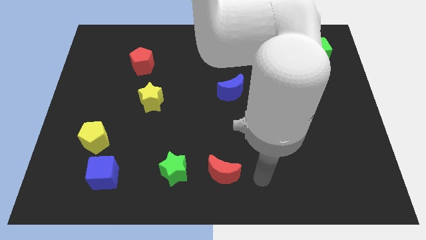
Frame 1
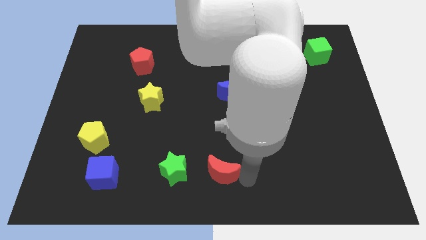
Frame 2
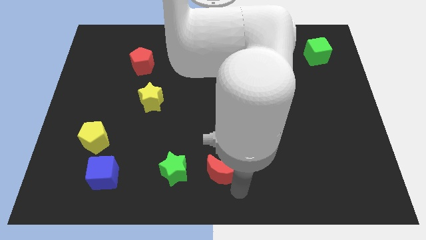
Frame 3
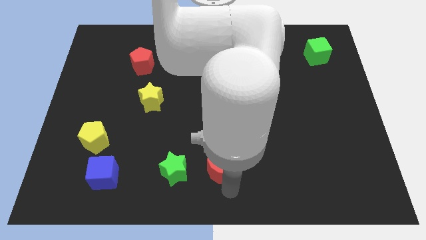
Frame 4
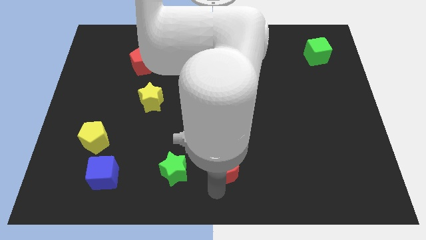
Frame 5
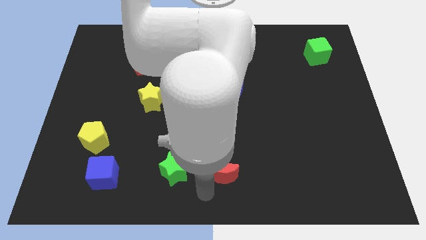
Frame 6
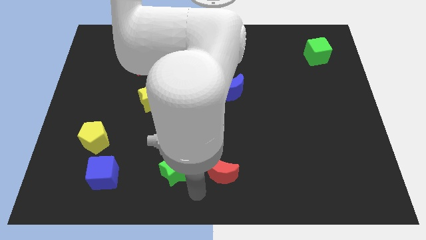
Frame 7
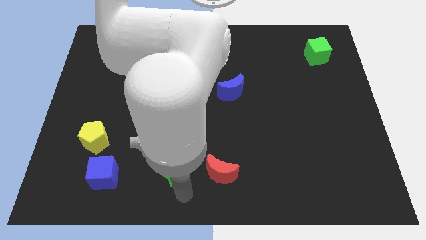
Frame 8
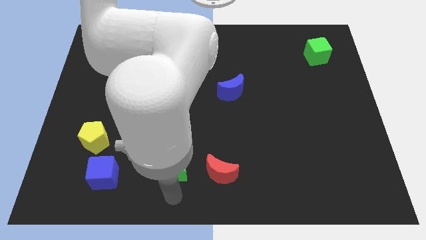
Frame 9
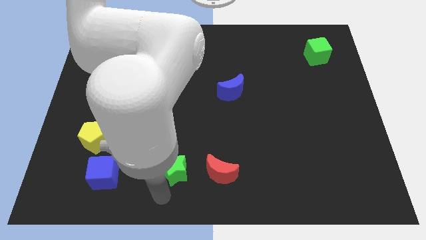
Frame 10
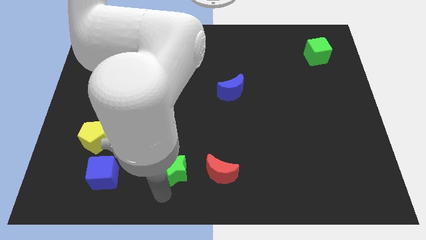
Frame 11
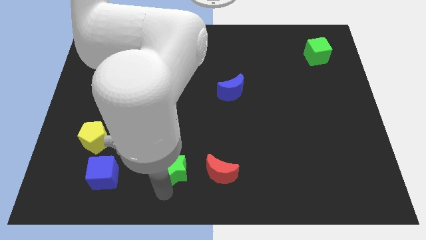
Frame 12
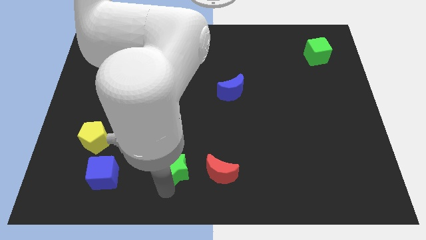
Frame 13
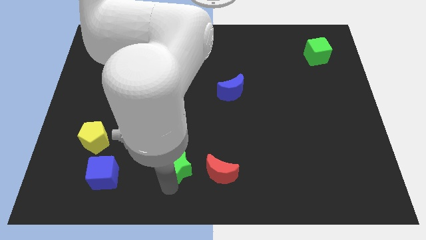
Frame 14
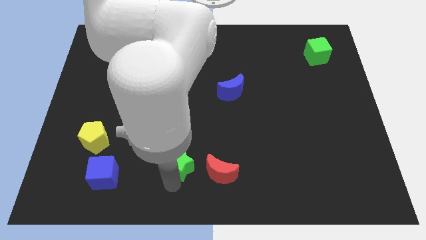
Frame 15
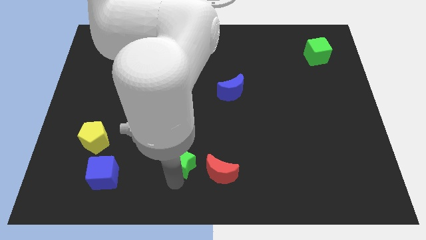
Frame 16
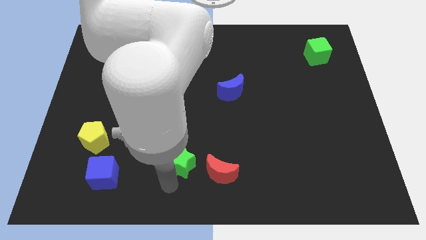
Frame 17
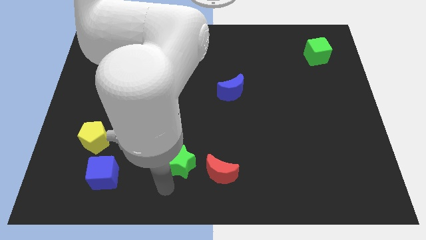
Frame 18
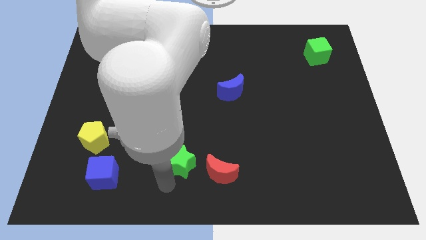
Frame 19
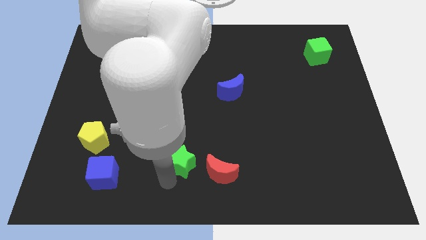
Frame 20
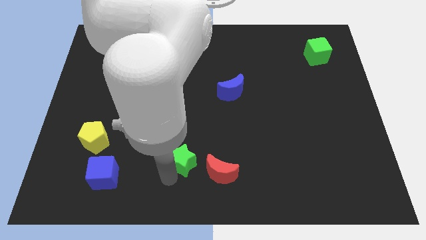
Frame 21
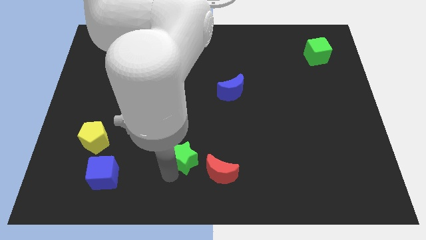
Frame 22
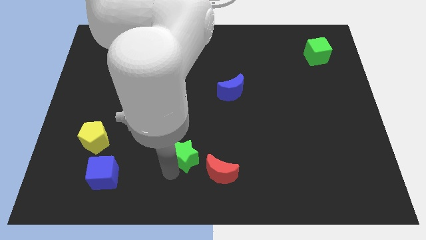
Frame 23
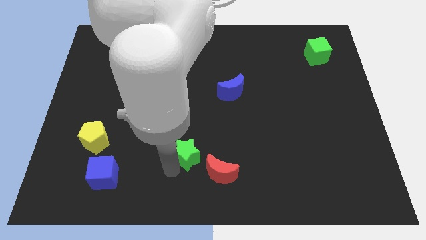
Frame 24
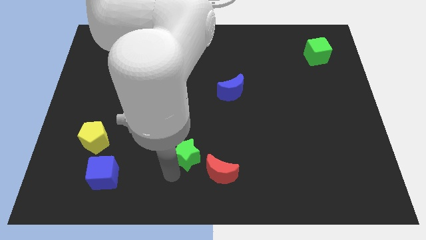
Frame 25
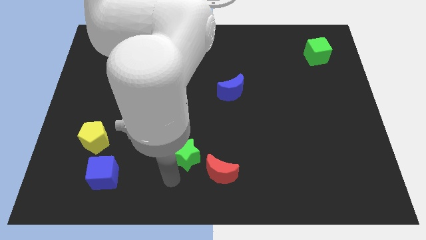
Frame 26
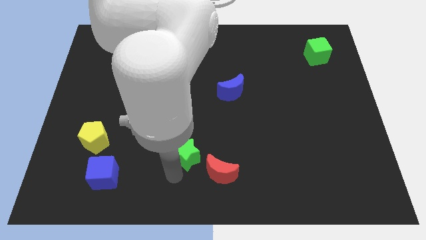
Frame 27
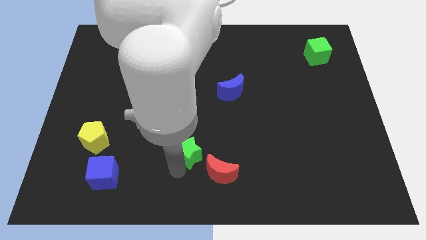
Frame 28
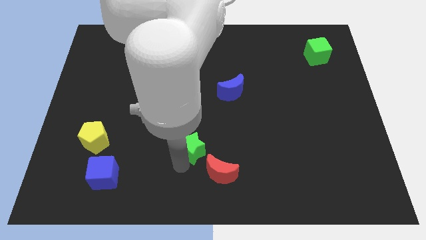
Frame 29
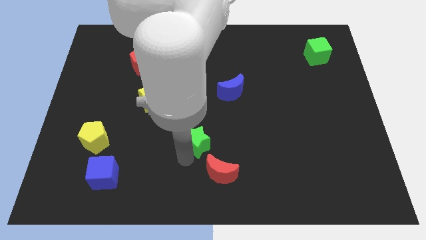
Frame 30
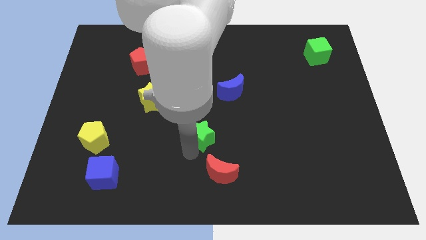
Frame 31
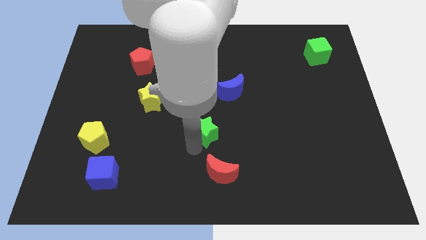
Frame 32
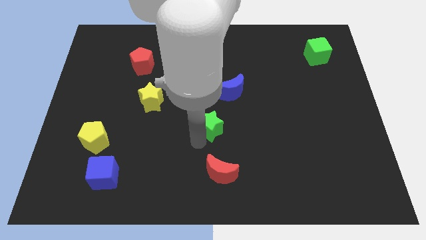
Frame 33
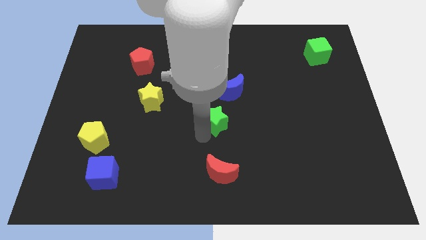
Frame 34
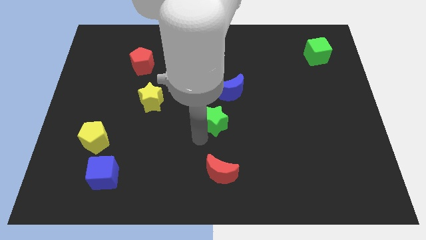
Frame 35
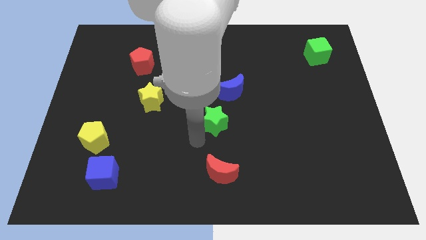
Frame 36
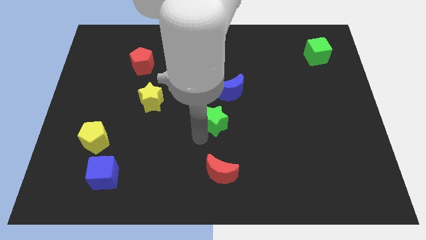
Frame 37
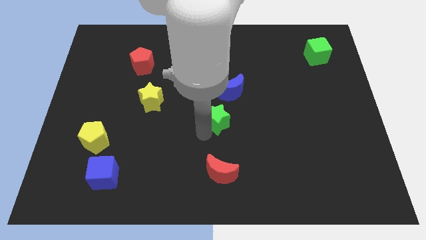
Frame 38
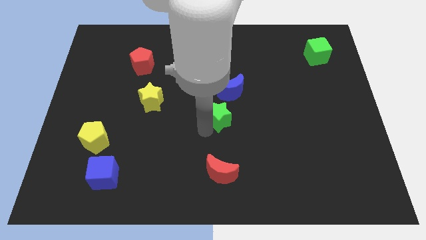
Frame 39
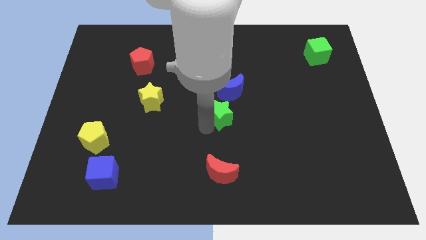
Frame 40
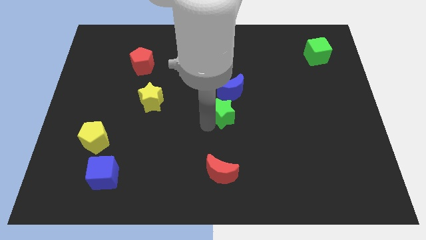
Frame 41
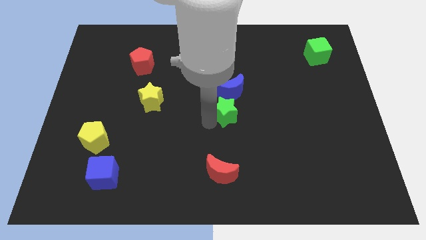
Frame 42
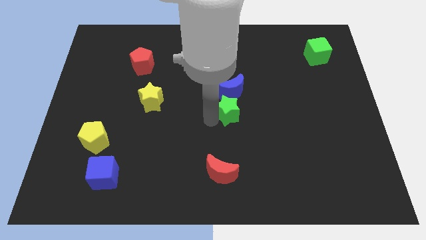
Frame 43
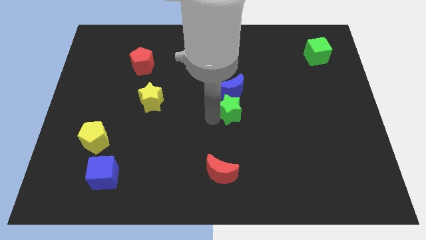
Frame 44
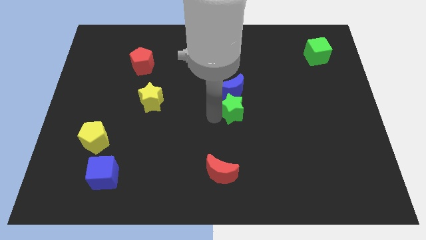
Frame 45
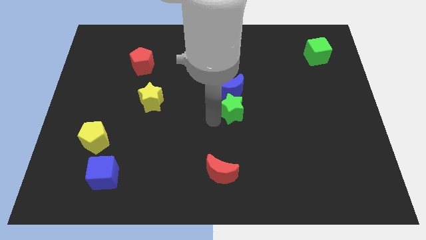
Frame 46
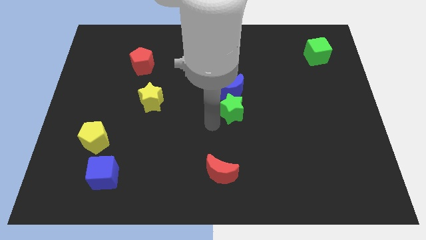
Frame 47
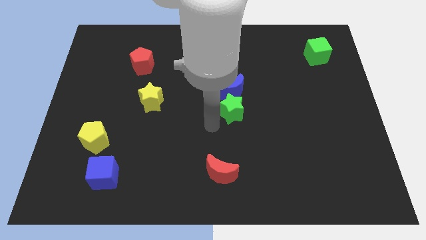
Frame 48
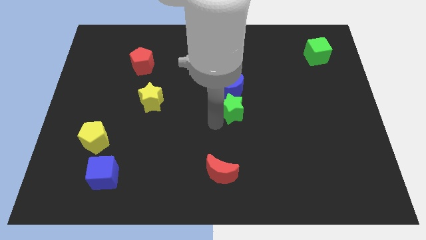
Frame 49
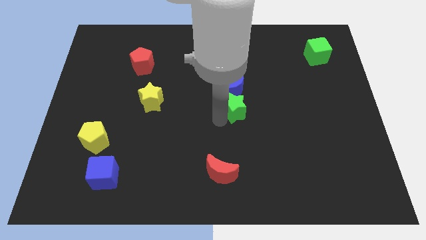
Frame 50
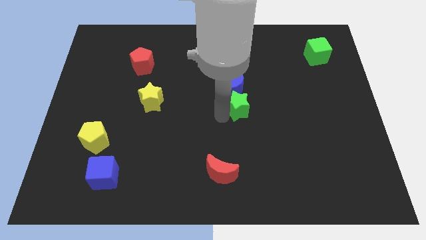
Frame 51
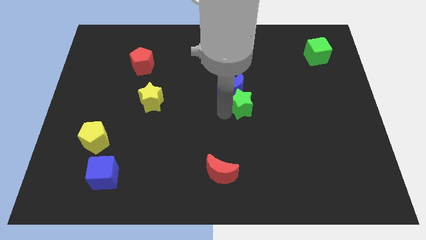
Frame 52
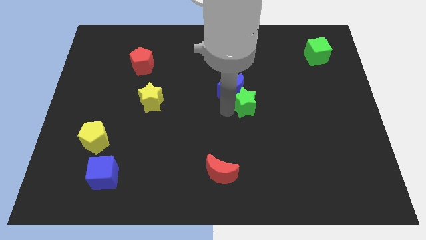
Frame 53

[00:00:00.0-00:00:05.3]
put the green star right of the blue moon
